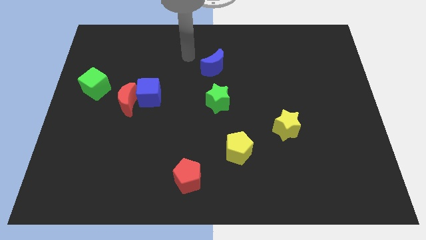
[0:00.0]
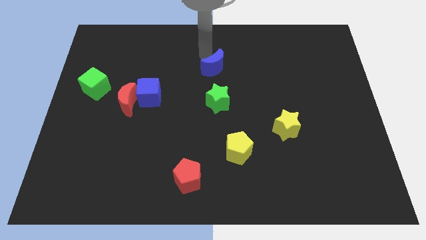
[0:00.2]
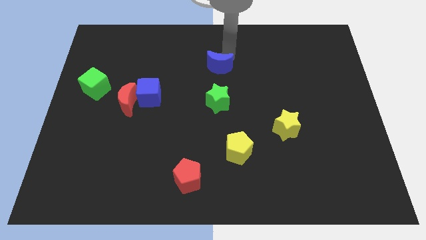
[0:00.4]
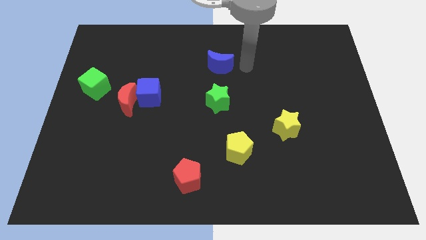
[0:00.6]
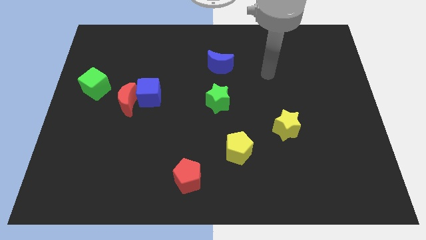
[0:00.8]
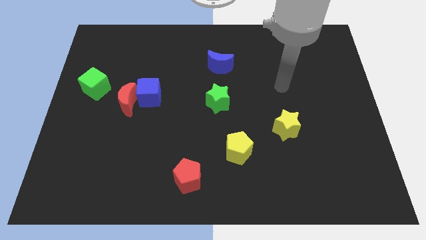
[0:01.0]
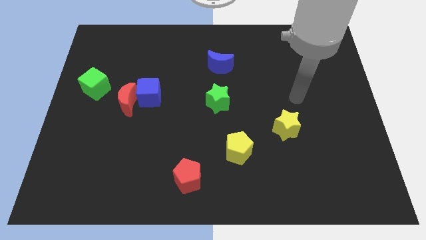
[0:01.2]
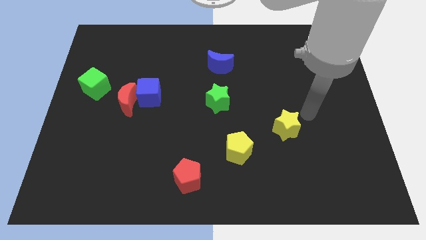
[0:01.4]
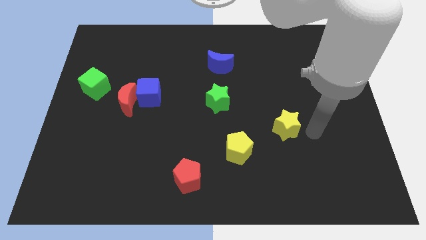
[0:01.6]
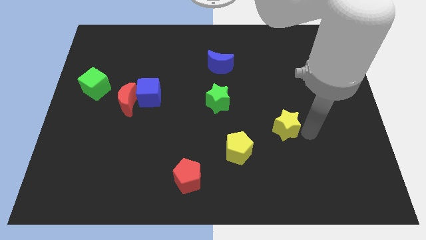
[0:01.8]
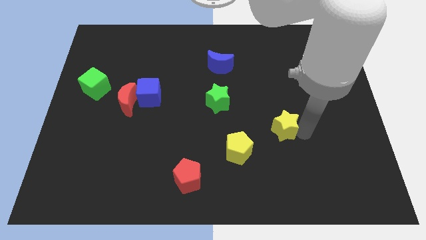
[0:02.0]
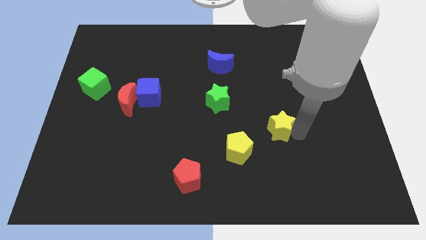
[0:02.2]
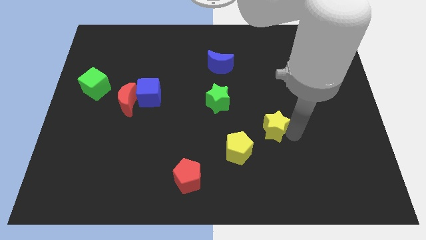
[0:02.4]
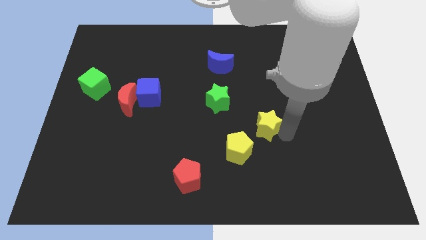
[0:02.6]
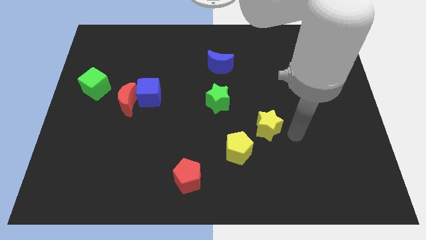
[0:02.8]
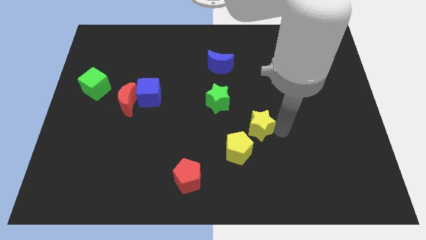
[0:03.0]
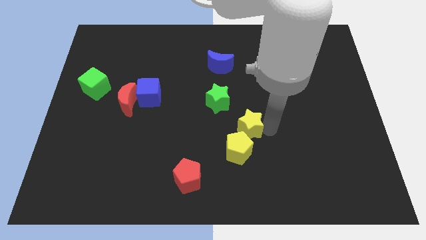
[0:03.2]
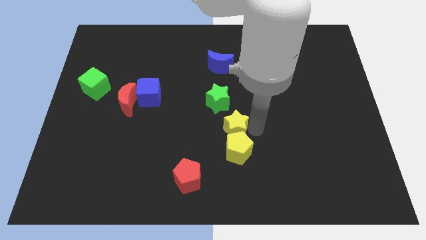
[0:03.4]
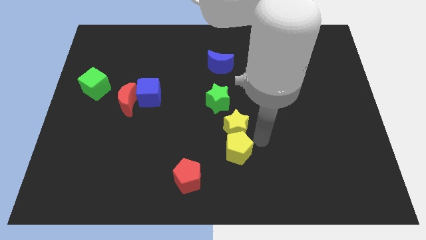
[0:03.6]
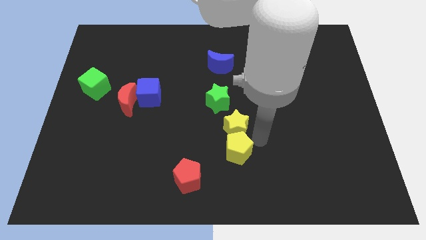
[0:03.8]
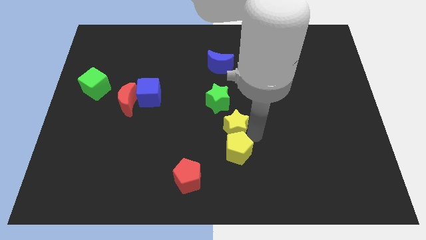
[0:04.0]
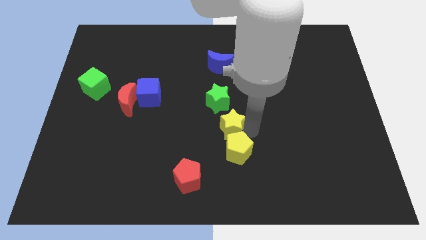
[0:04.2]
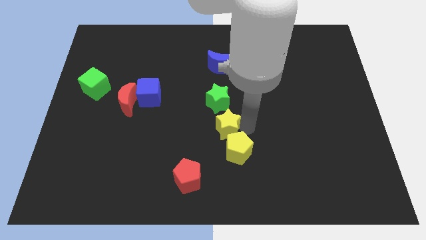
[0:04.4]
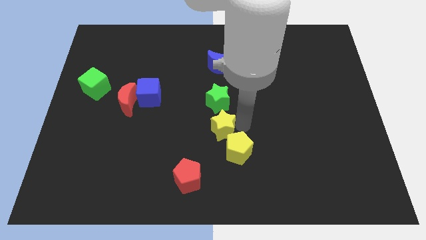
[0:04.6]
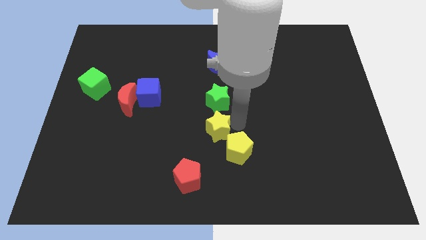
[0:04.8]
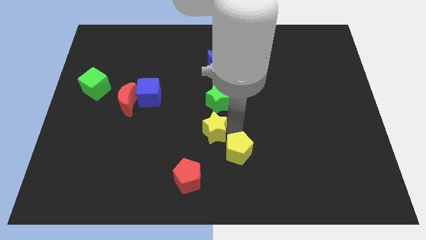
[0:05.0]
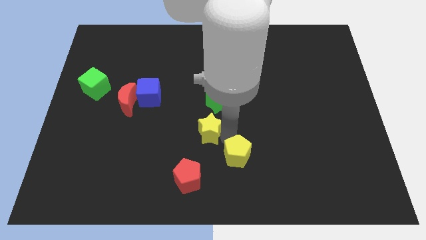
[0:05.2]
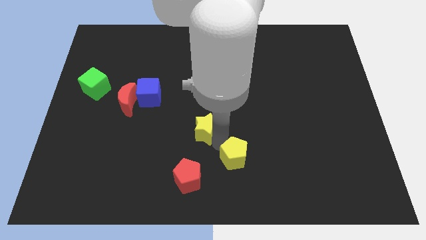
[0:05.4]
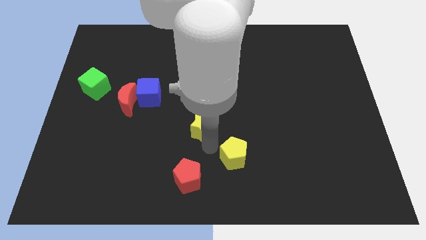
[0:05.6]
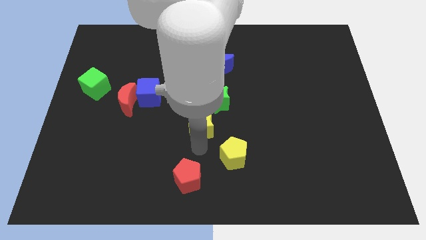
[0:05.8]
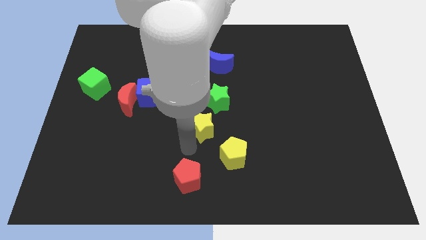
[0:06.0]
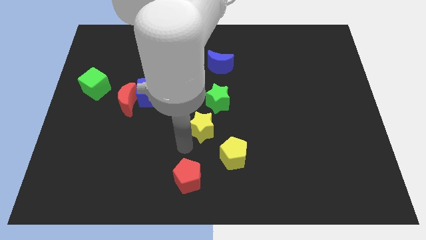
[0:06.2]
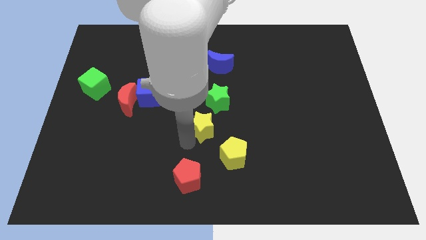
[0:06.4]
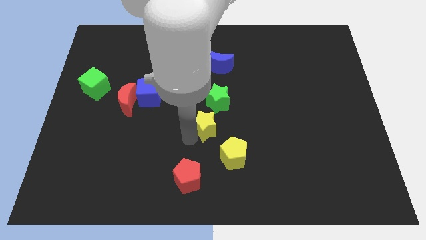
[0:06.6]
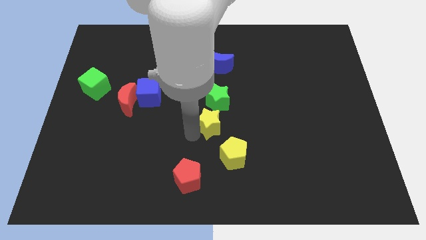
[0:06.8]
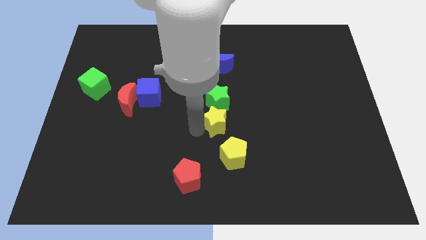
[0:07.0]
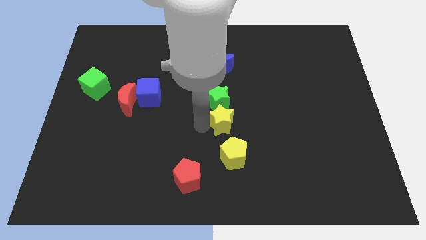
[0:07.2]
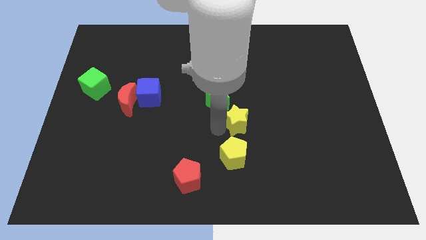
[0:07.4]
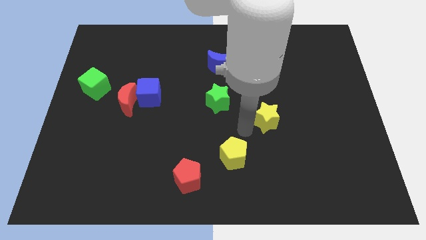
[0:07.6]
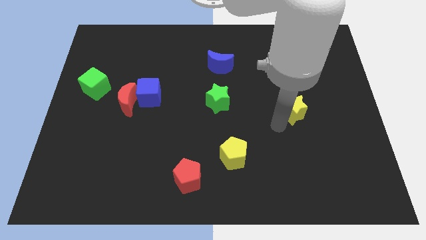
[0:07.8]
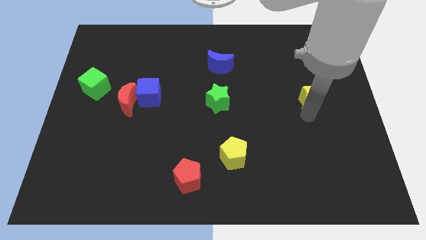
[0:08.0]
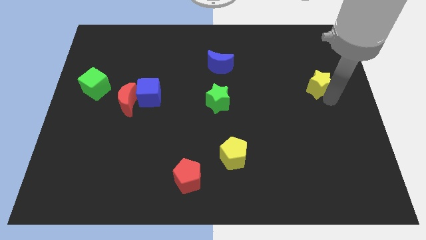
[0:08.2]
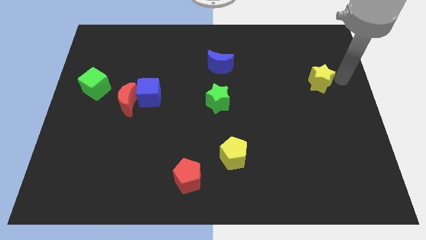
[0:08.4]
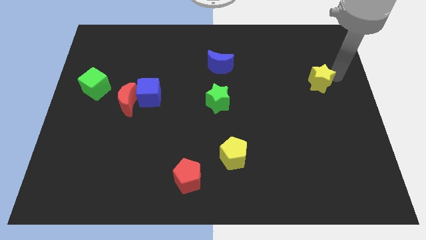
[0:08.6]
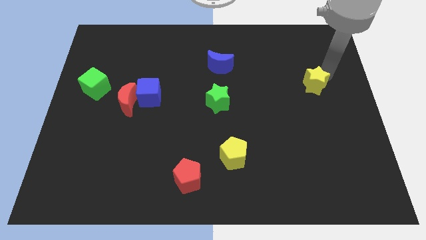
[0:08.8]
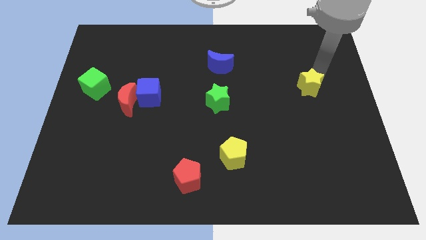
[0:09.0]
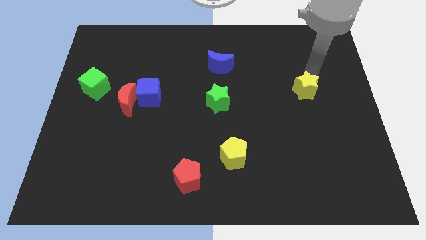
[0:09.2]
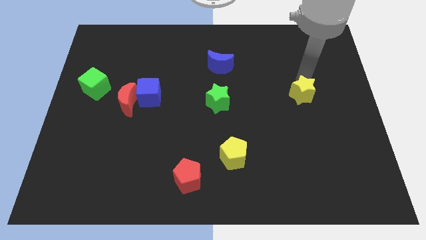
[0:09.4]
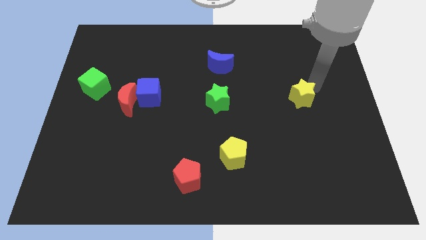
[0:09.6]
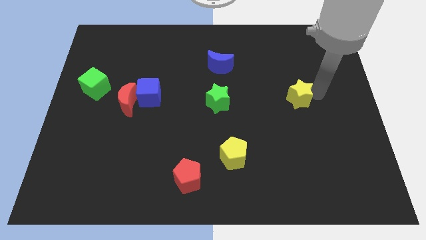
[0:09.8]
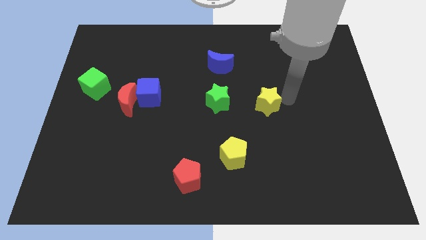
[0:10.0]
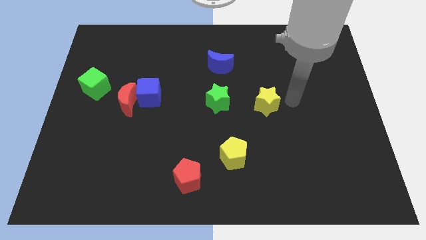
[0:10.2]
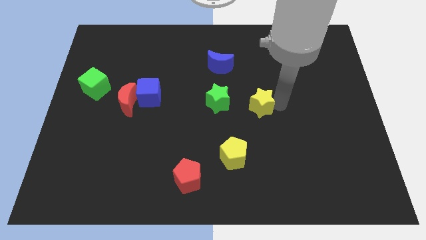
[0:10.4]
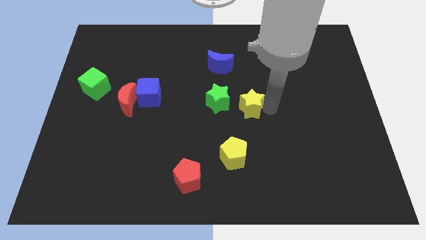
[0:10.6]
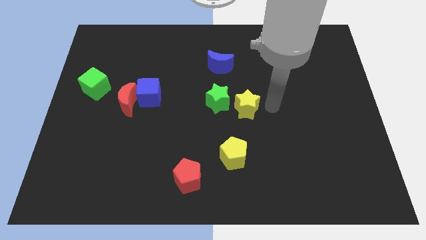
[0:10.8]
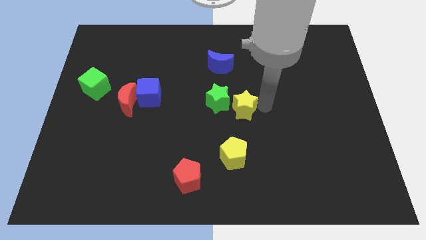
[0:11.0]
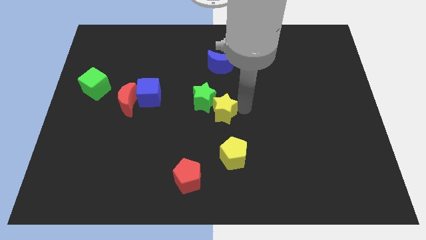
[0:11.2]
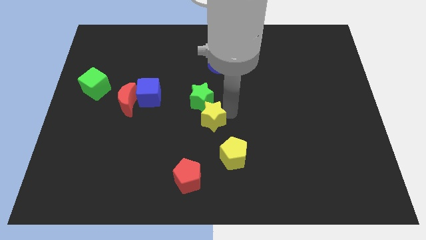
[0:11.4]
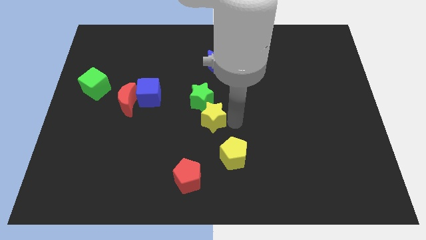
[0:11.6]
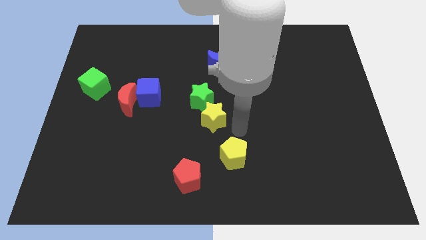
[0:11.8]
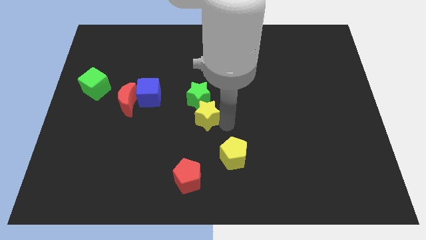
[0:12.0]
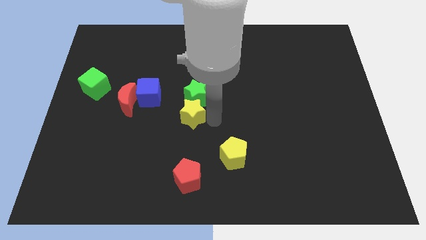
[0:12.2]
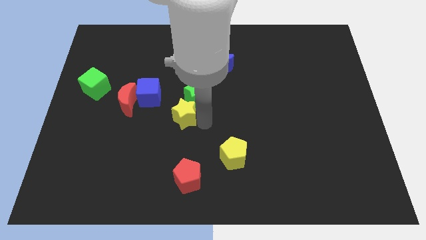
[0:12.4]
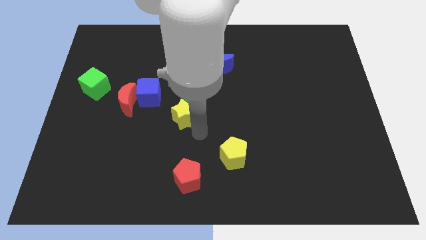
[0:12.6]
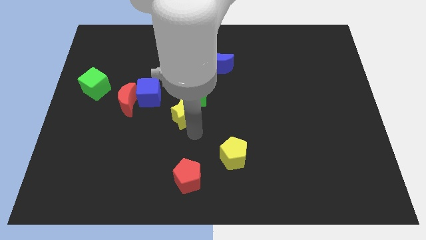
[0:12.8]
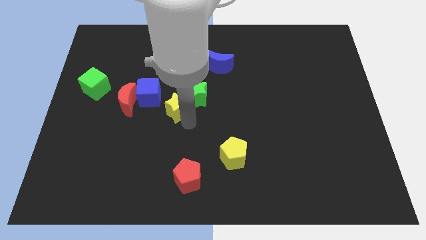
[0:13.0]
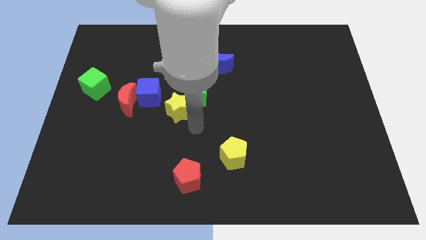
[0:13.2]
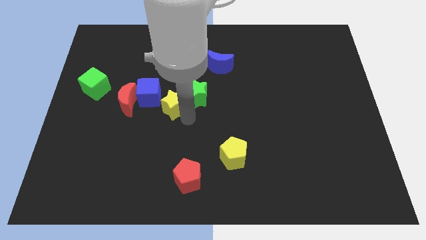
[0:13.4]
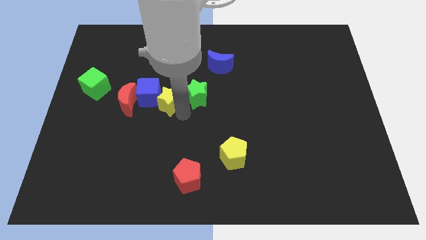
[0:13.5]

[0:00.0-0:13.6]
slide the yellow star next to the blue cube
